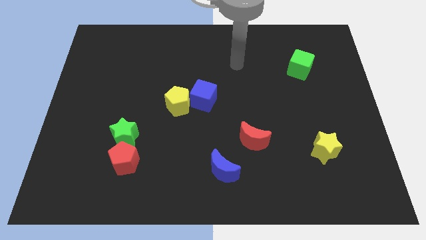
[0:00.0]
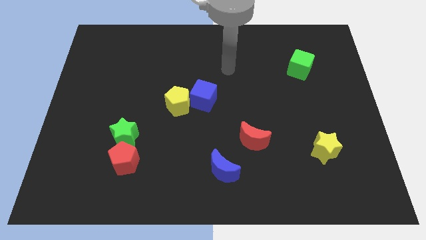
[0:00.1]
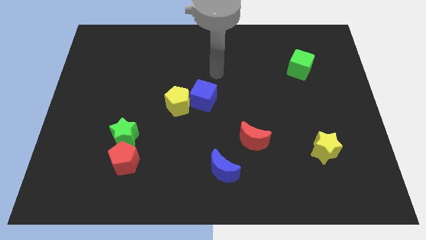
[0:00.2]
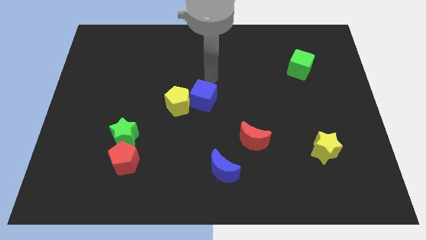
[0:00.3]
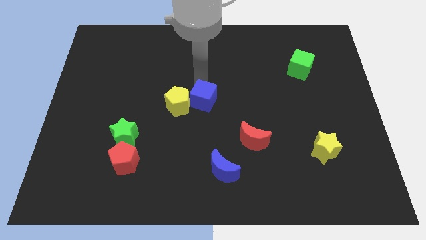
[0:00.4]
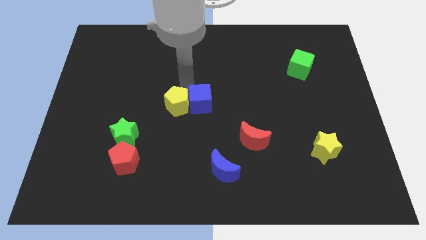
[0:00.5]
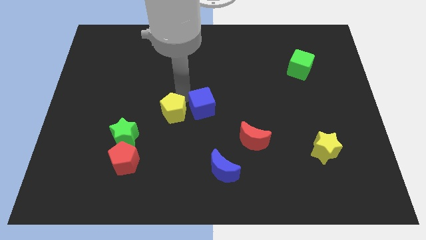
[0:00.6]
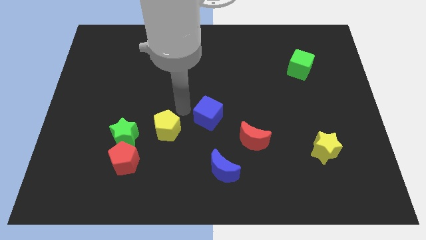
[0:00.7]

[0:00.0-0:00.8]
separate the blue cube from the yellow pentagon

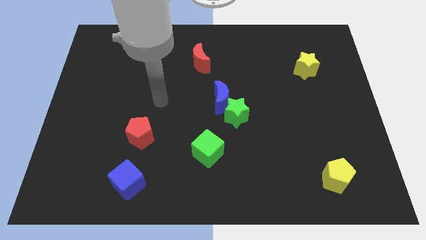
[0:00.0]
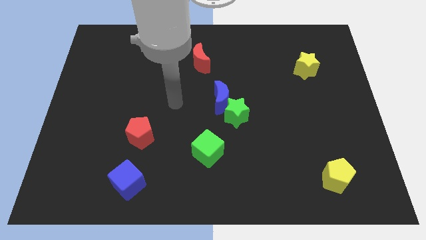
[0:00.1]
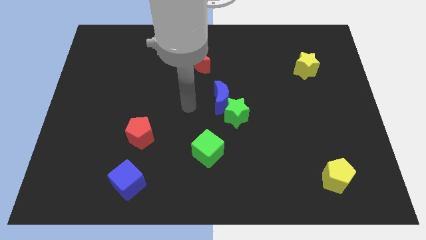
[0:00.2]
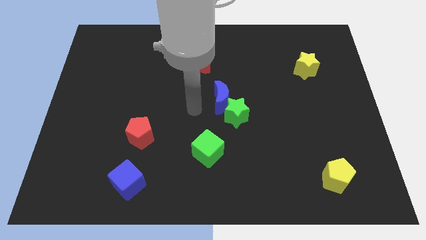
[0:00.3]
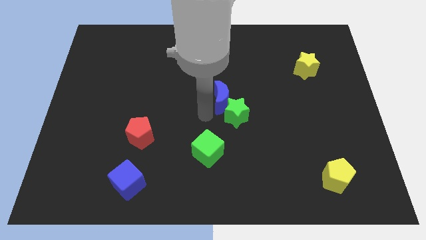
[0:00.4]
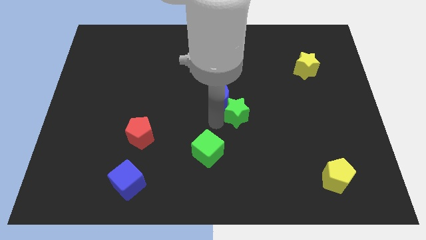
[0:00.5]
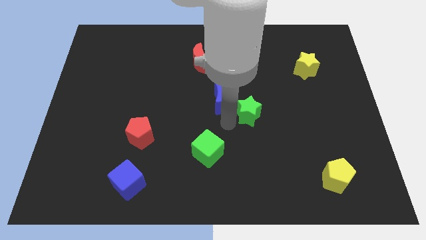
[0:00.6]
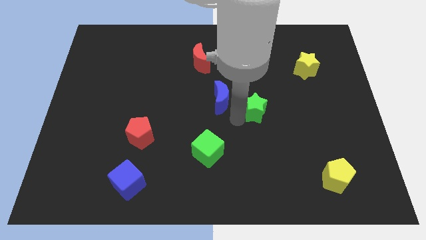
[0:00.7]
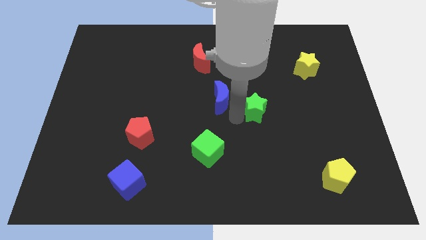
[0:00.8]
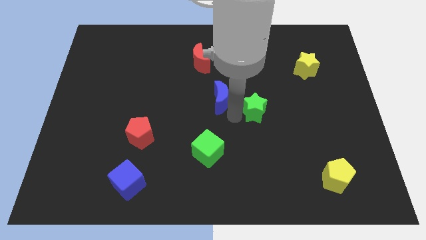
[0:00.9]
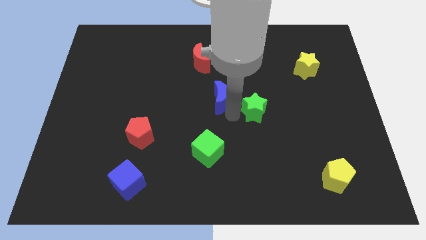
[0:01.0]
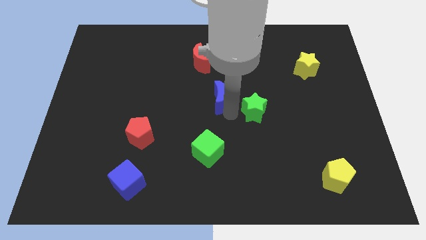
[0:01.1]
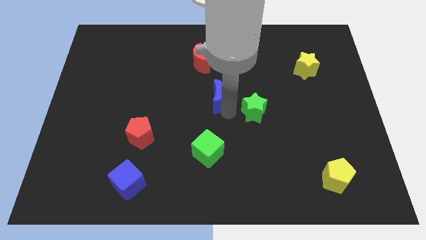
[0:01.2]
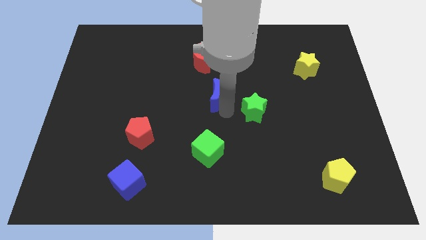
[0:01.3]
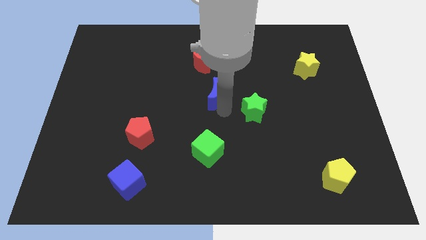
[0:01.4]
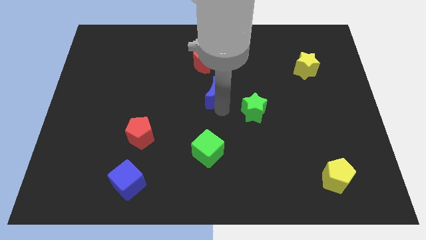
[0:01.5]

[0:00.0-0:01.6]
move the blue moon away from the green star

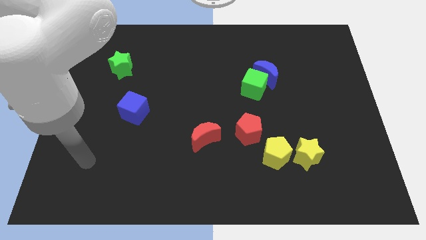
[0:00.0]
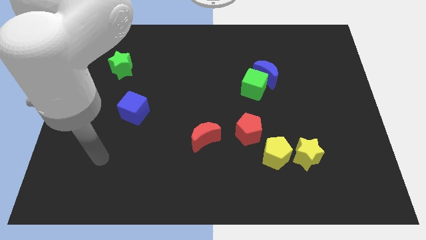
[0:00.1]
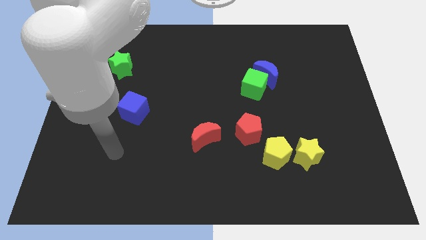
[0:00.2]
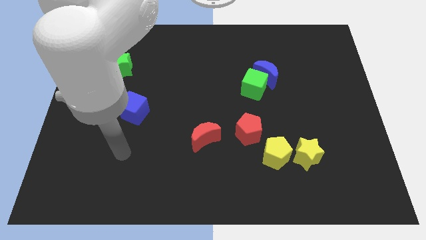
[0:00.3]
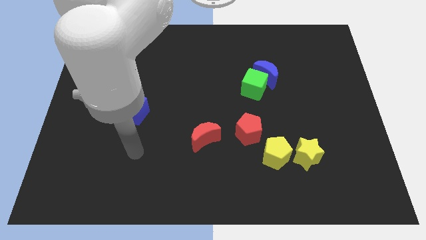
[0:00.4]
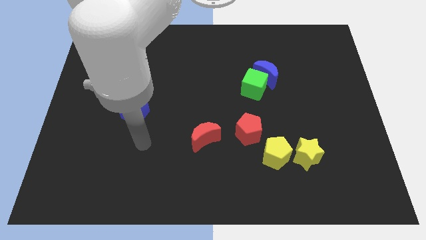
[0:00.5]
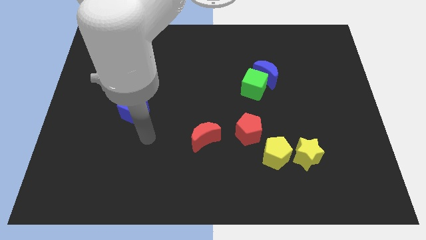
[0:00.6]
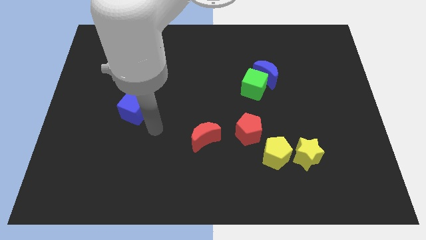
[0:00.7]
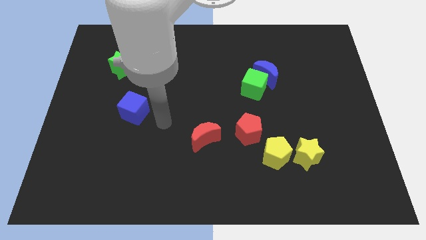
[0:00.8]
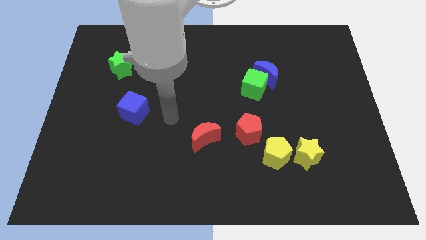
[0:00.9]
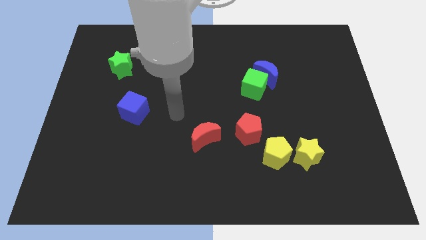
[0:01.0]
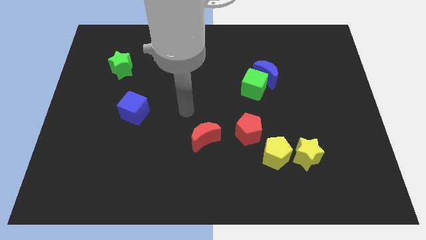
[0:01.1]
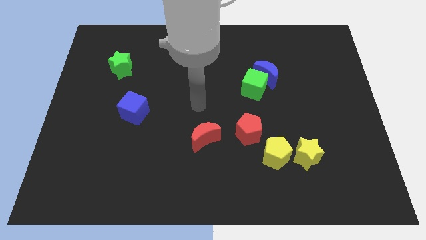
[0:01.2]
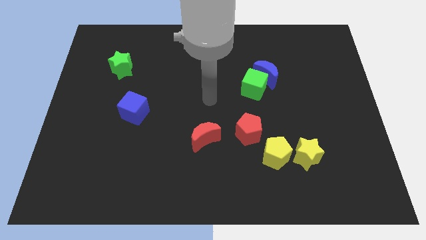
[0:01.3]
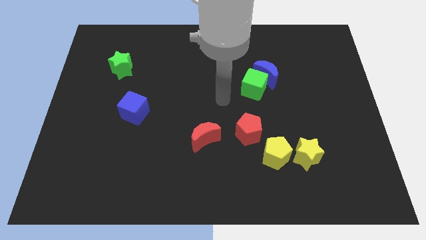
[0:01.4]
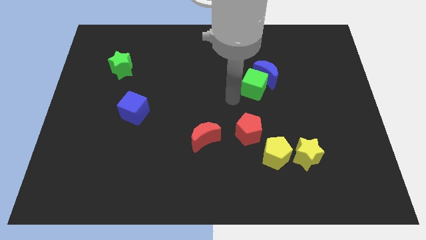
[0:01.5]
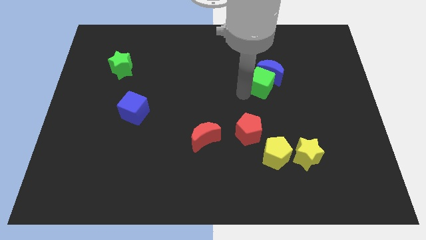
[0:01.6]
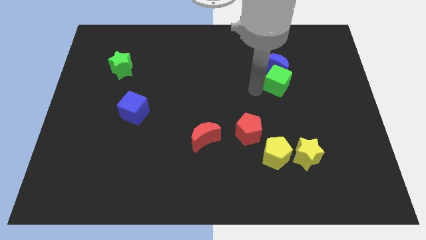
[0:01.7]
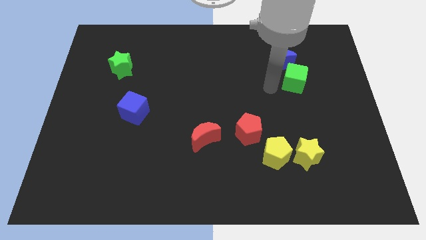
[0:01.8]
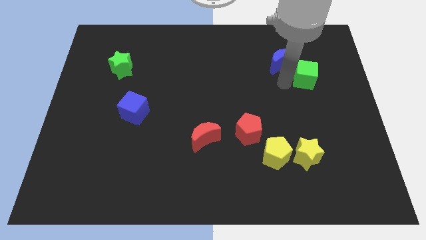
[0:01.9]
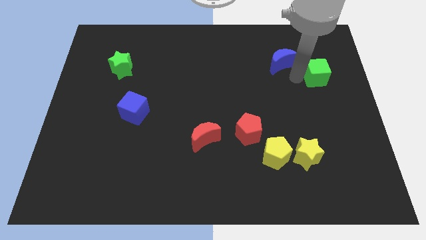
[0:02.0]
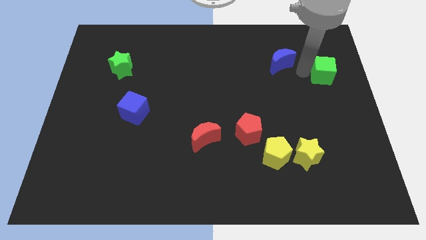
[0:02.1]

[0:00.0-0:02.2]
pull the blue moon apart from the green cube

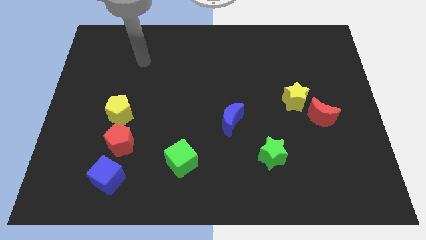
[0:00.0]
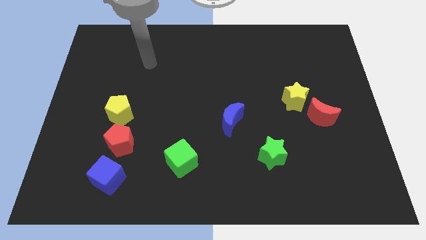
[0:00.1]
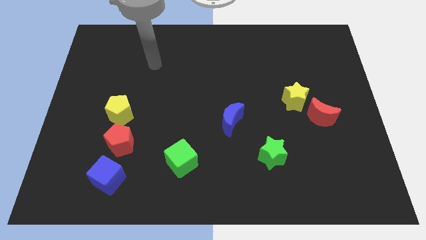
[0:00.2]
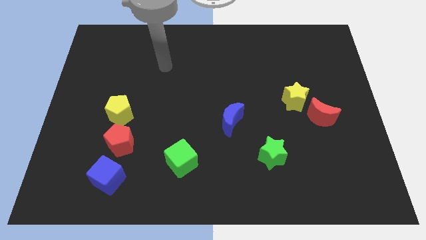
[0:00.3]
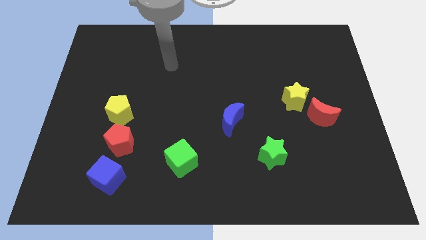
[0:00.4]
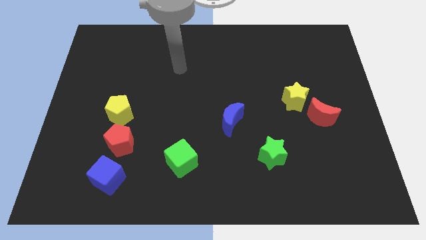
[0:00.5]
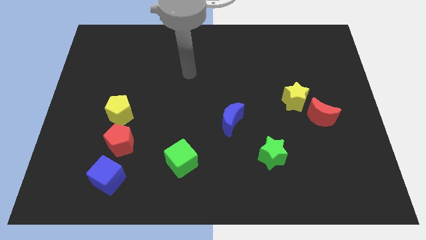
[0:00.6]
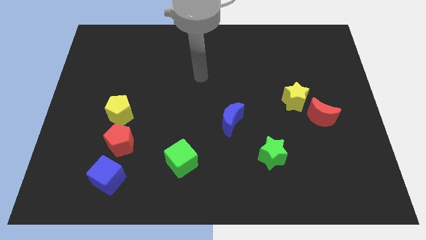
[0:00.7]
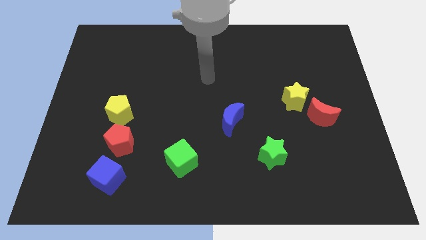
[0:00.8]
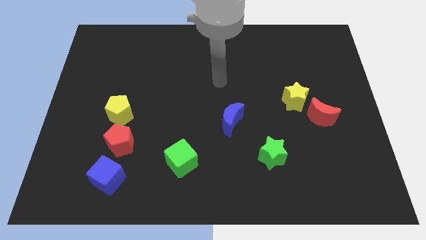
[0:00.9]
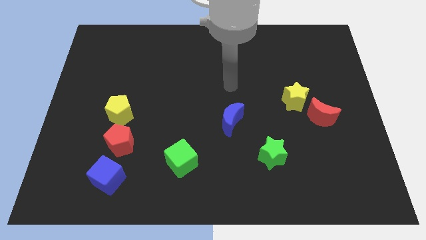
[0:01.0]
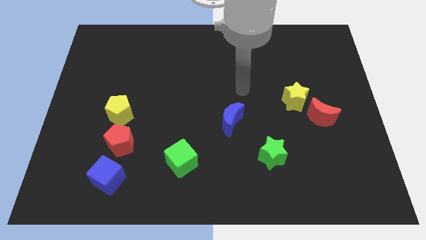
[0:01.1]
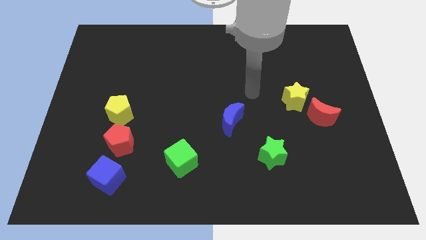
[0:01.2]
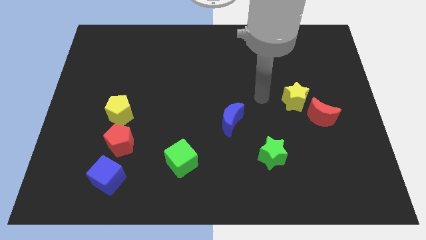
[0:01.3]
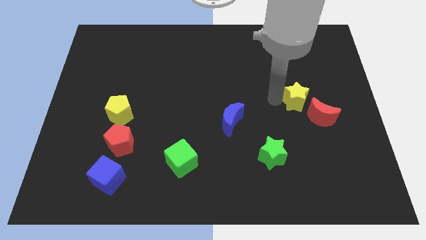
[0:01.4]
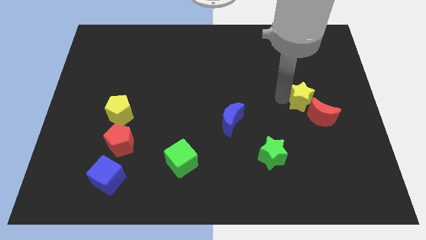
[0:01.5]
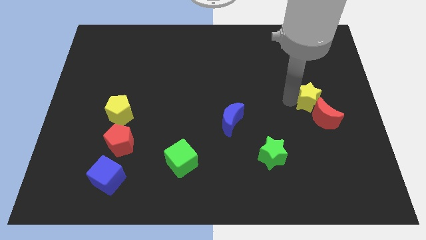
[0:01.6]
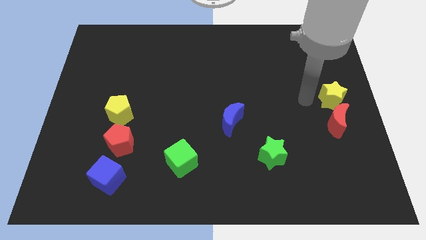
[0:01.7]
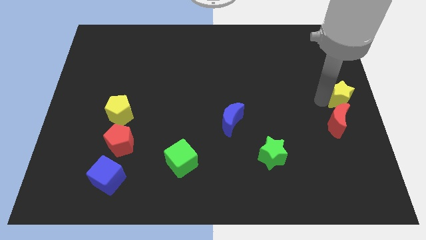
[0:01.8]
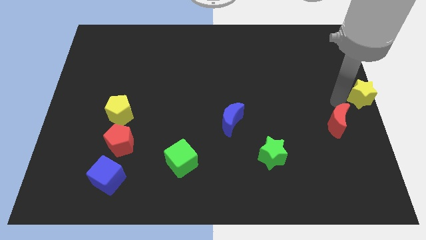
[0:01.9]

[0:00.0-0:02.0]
separate the red moon from the yellow star

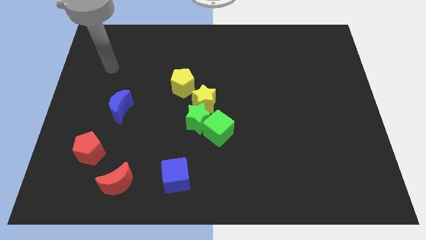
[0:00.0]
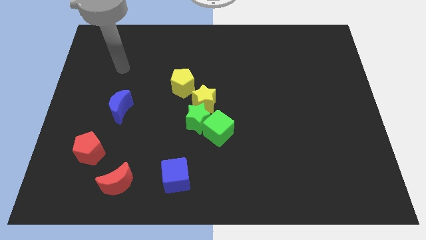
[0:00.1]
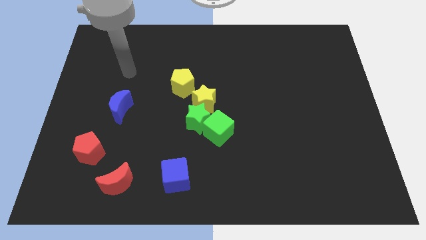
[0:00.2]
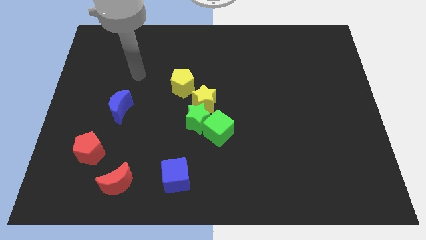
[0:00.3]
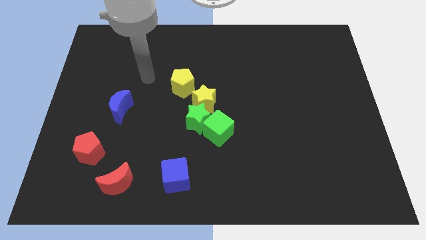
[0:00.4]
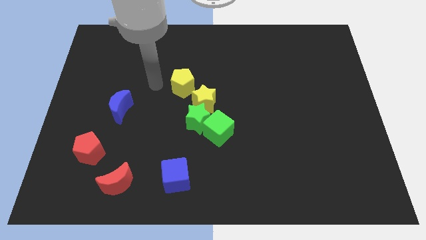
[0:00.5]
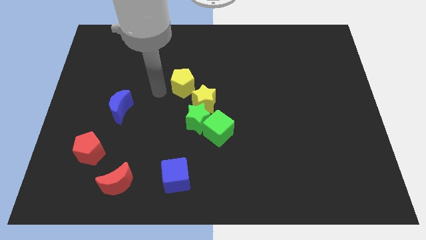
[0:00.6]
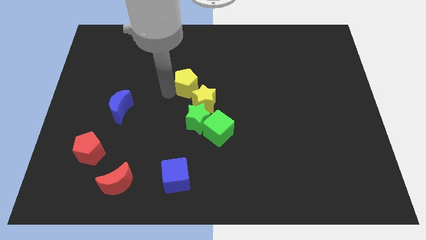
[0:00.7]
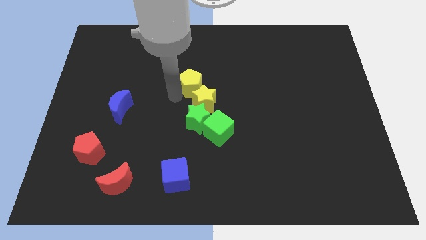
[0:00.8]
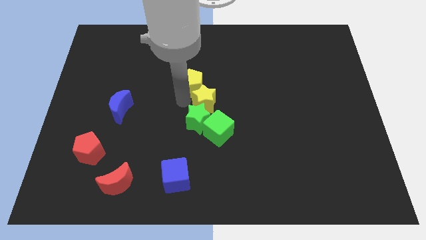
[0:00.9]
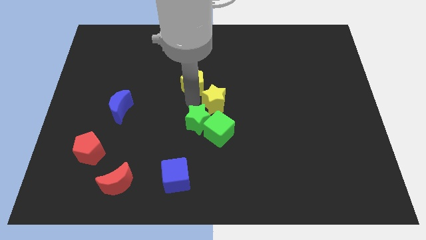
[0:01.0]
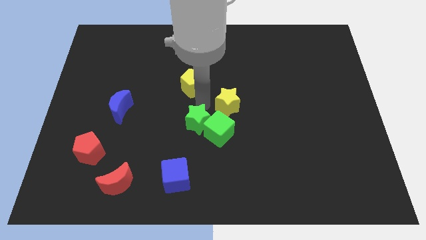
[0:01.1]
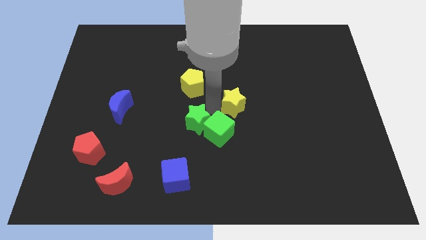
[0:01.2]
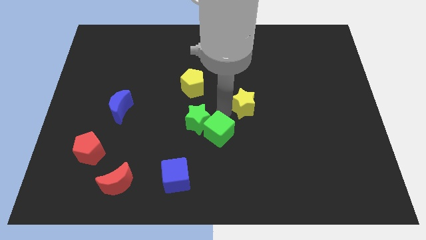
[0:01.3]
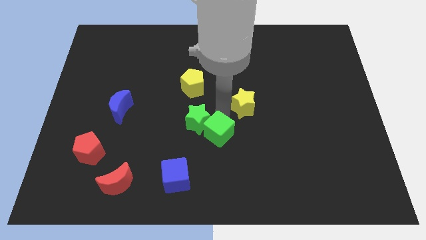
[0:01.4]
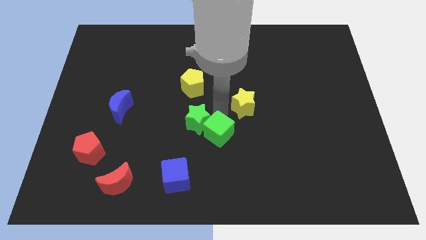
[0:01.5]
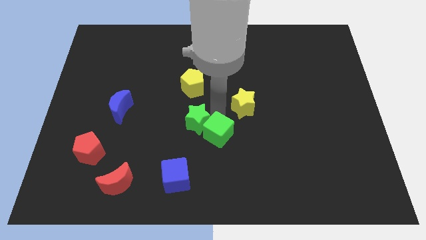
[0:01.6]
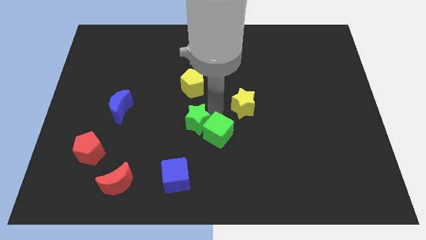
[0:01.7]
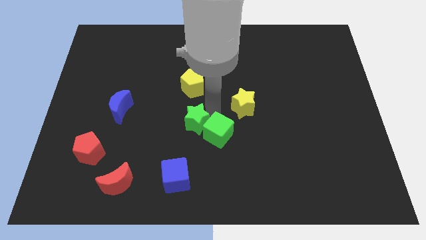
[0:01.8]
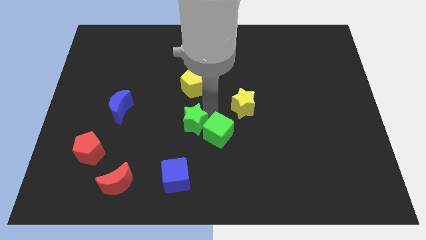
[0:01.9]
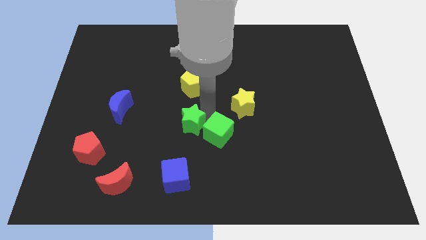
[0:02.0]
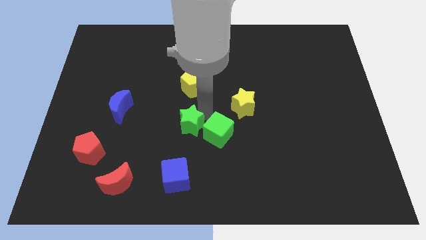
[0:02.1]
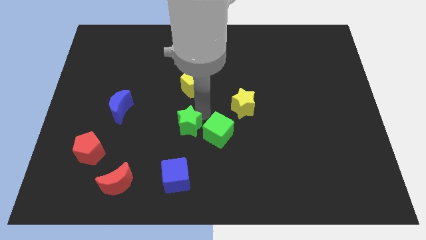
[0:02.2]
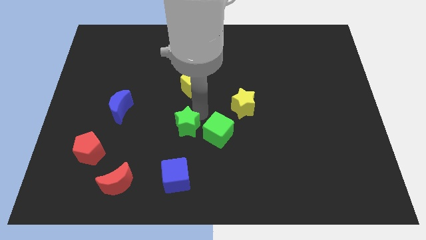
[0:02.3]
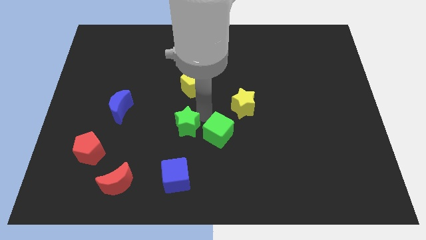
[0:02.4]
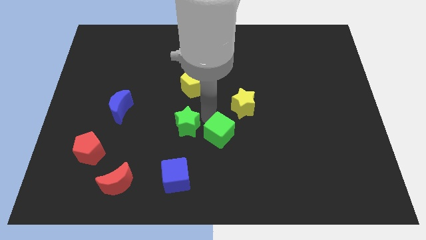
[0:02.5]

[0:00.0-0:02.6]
pull the green star apart from the green cube and yellow star
